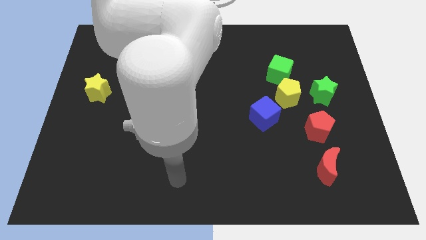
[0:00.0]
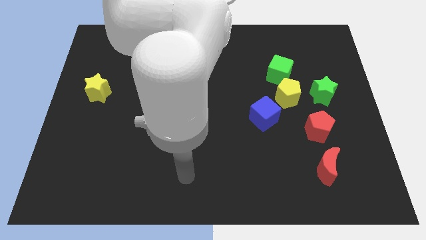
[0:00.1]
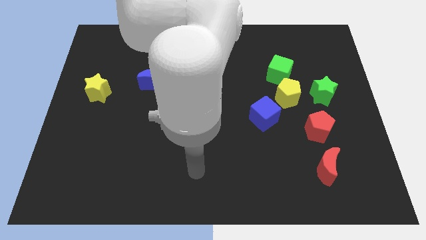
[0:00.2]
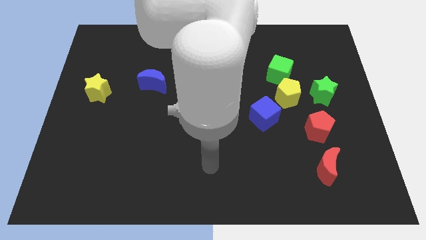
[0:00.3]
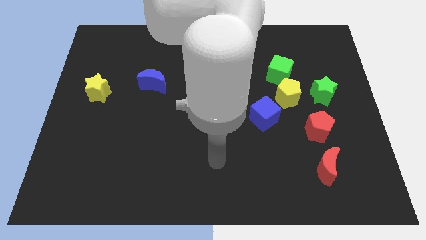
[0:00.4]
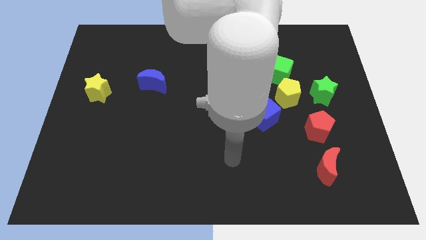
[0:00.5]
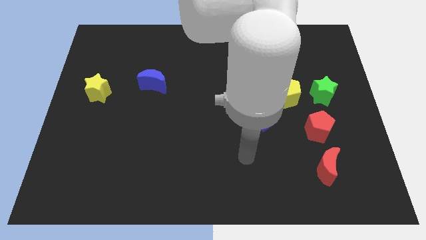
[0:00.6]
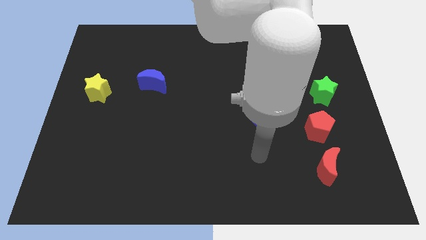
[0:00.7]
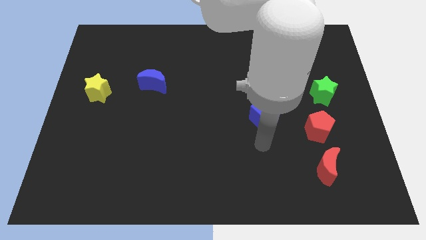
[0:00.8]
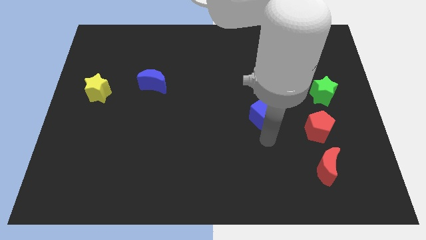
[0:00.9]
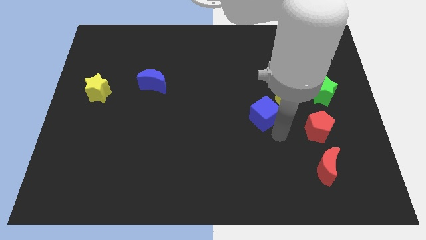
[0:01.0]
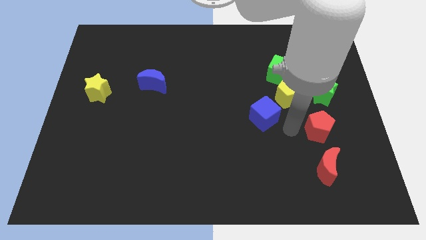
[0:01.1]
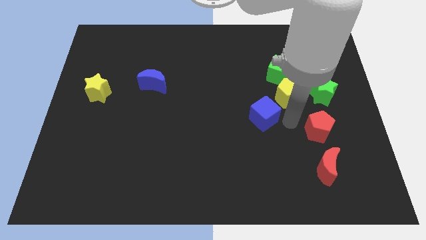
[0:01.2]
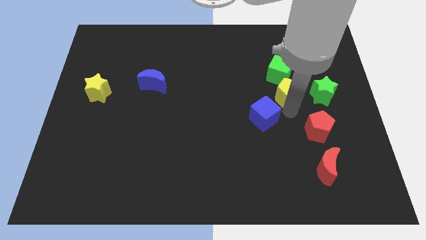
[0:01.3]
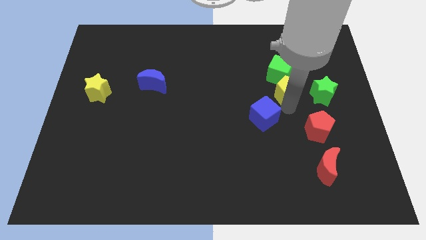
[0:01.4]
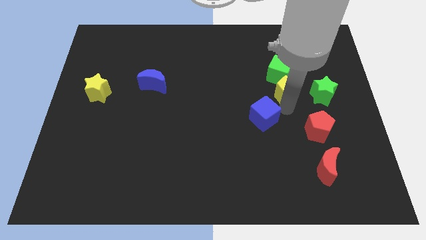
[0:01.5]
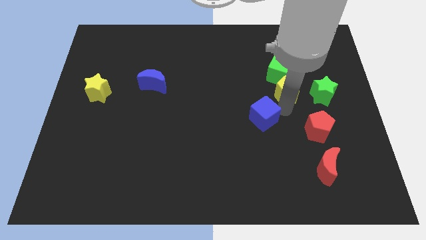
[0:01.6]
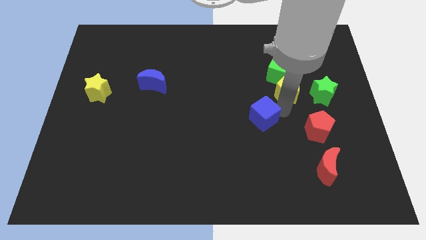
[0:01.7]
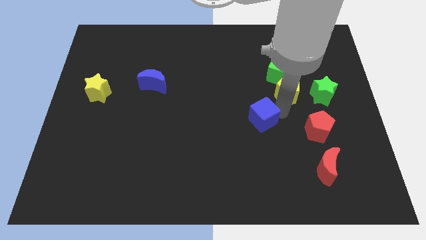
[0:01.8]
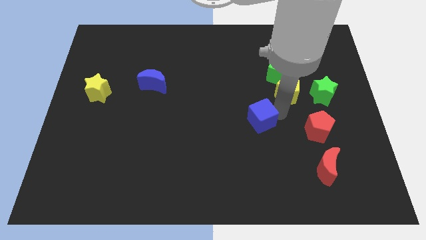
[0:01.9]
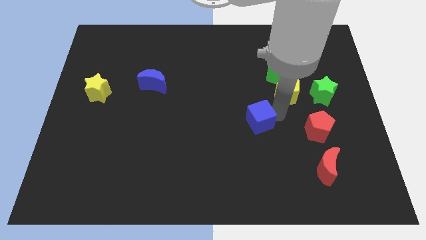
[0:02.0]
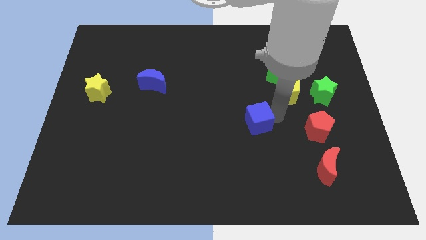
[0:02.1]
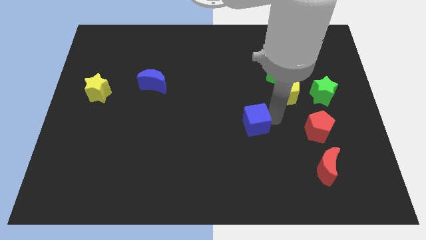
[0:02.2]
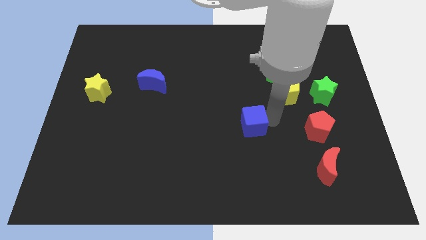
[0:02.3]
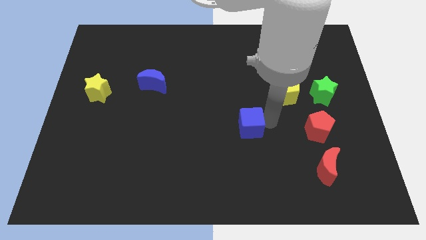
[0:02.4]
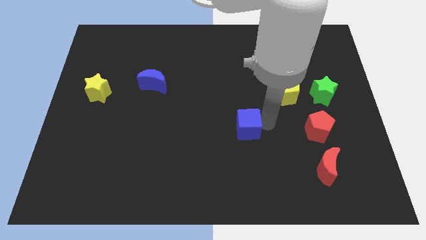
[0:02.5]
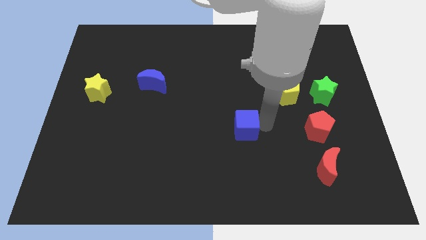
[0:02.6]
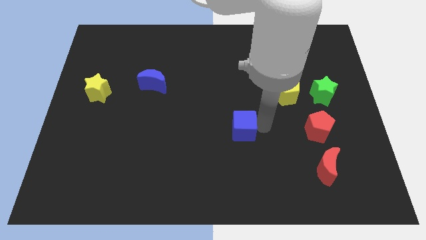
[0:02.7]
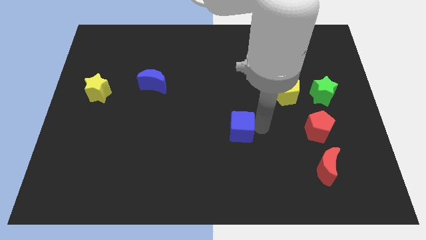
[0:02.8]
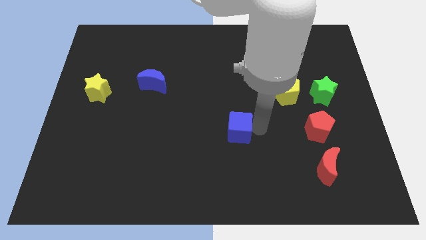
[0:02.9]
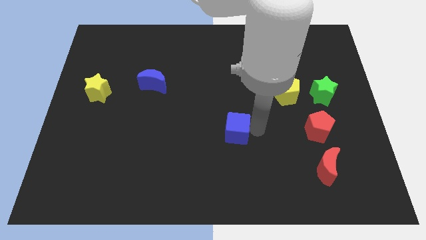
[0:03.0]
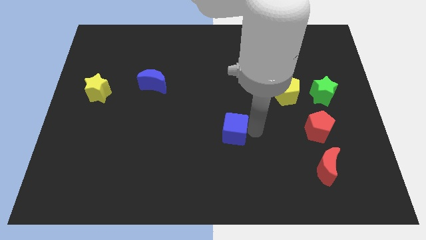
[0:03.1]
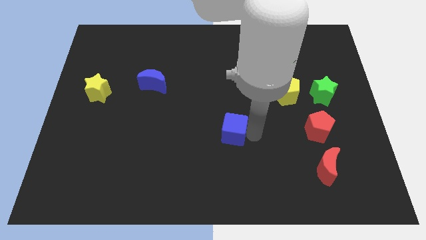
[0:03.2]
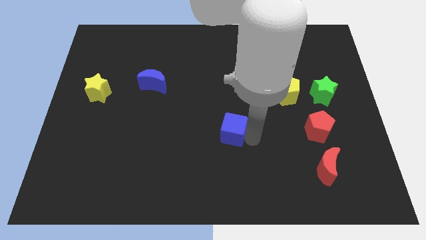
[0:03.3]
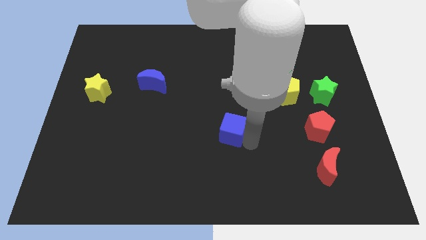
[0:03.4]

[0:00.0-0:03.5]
move the blue cube left somewhat

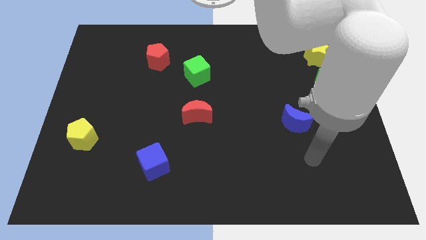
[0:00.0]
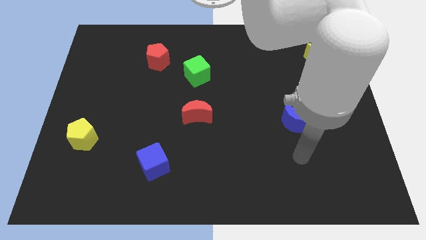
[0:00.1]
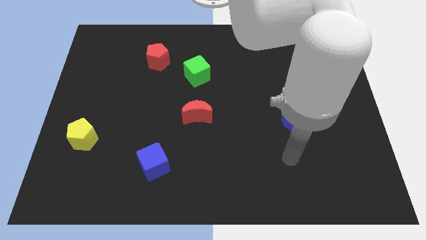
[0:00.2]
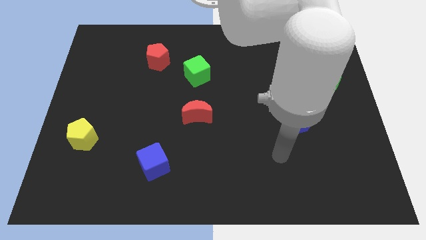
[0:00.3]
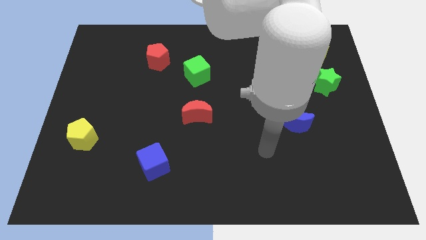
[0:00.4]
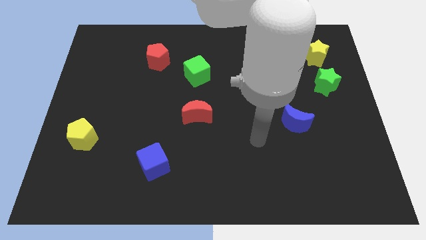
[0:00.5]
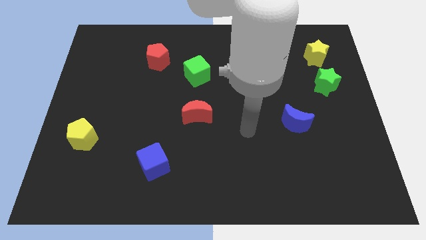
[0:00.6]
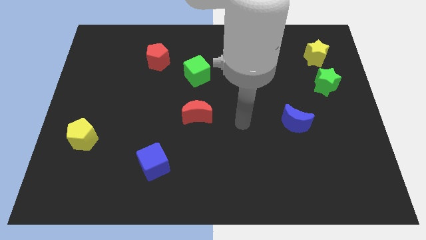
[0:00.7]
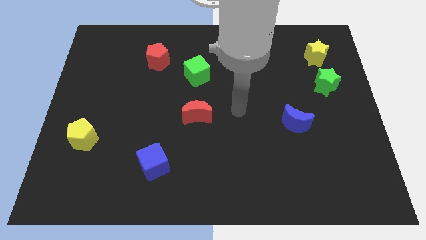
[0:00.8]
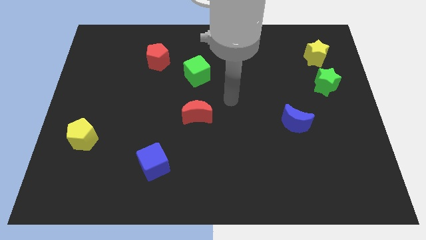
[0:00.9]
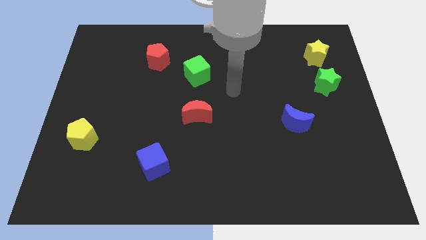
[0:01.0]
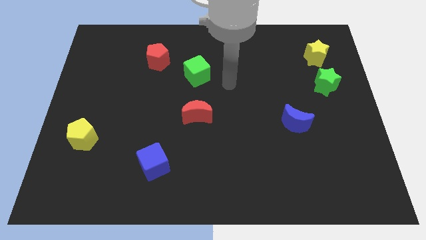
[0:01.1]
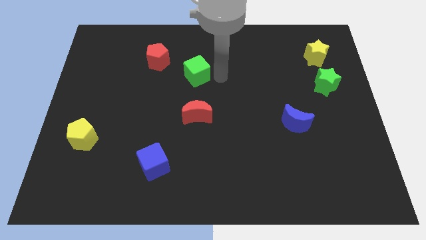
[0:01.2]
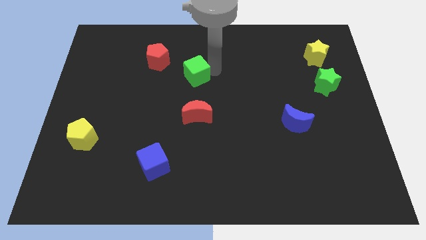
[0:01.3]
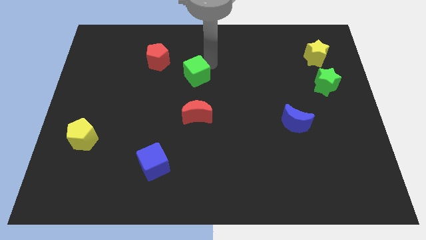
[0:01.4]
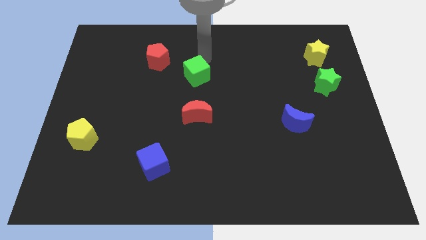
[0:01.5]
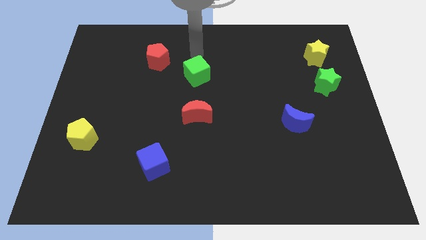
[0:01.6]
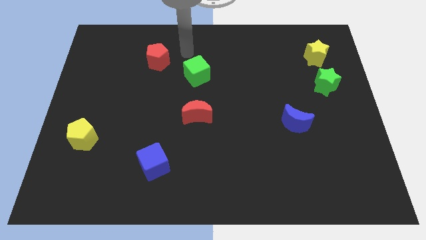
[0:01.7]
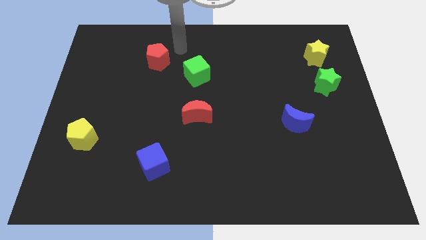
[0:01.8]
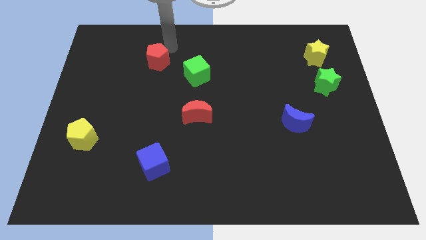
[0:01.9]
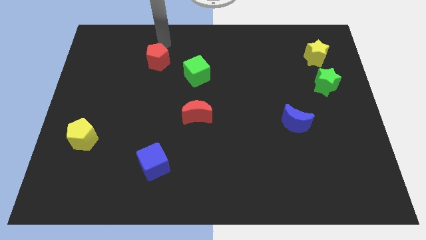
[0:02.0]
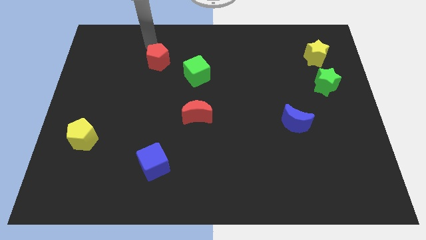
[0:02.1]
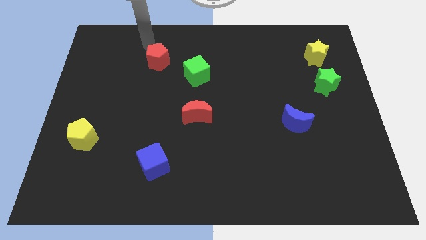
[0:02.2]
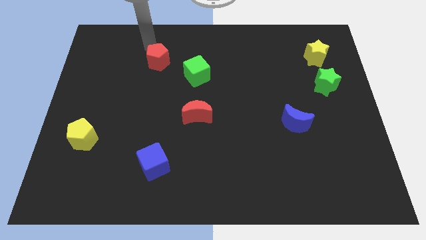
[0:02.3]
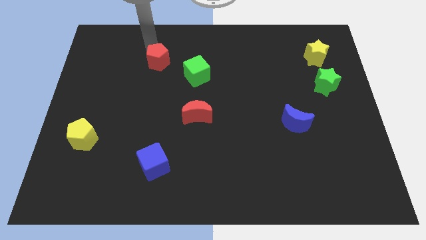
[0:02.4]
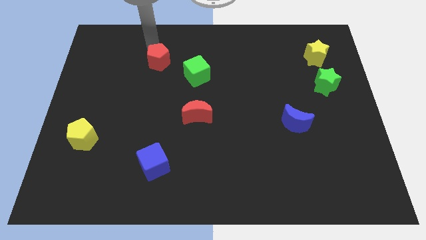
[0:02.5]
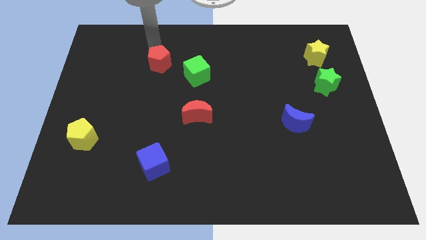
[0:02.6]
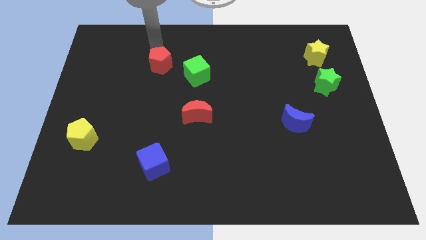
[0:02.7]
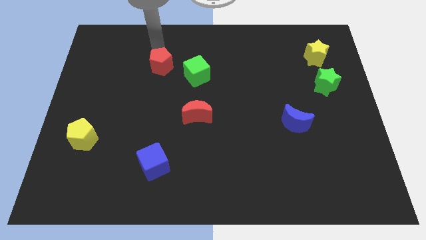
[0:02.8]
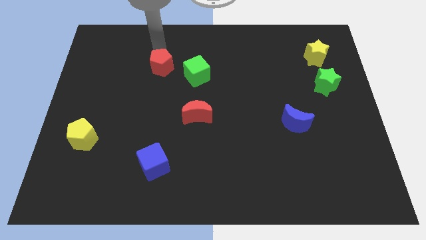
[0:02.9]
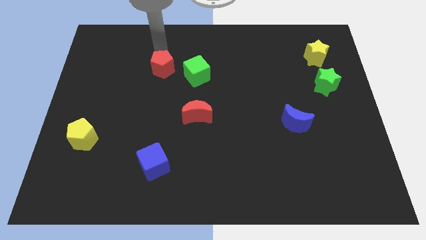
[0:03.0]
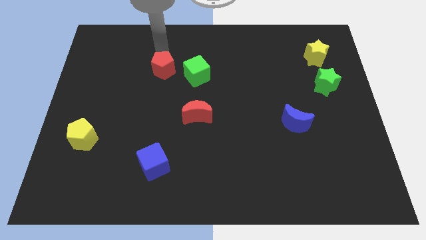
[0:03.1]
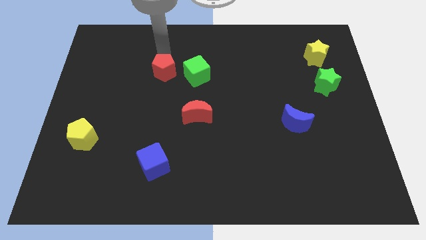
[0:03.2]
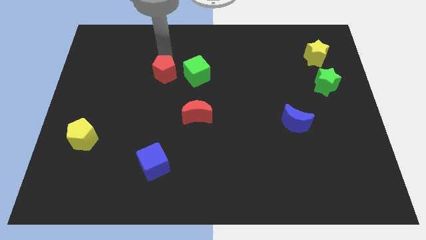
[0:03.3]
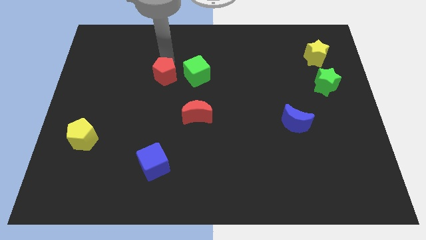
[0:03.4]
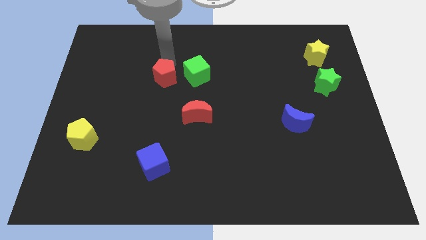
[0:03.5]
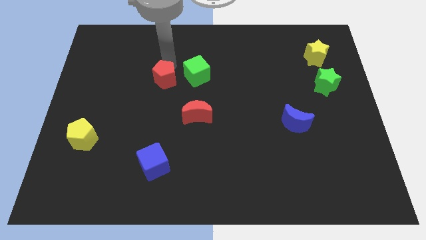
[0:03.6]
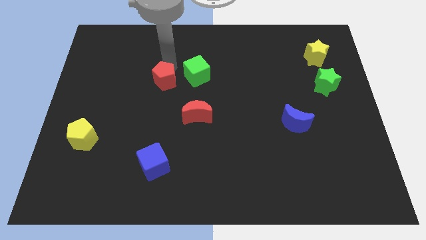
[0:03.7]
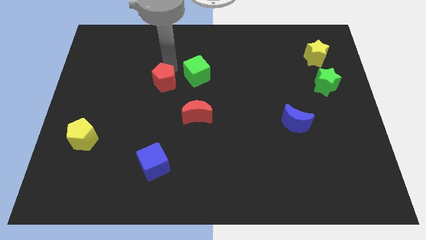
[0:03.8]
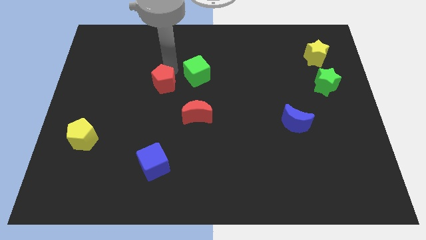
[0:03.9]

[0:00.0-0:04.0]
push the red pentagon diagonally downwards and to the right slightly

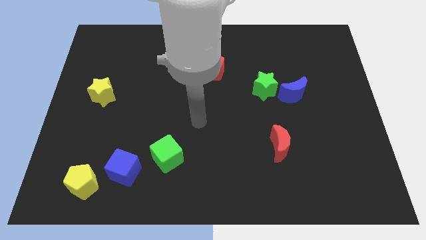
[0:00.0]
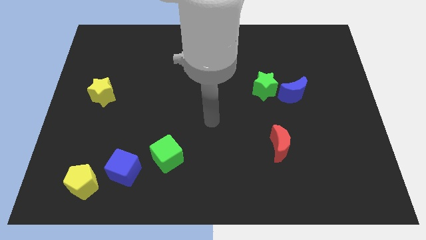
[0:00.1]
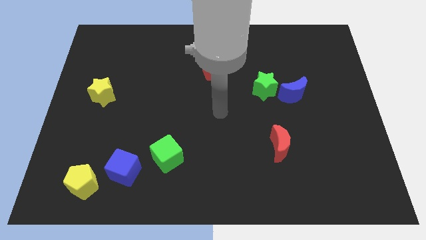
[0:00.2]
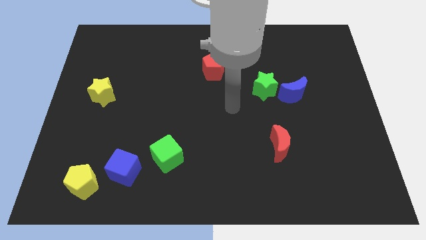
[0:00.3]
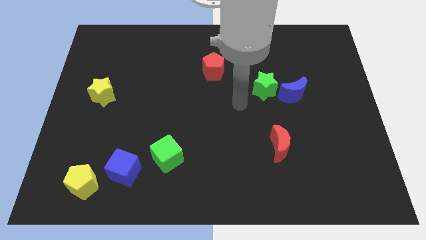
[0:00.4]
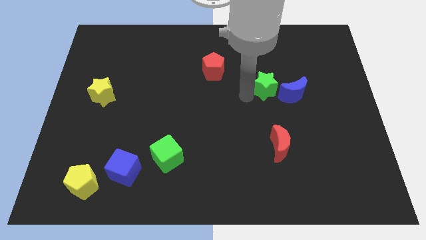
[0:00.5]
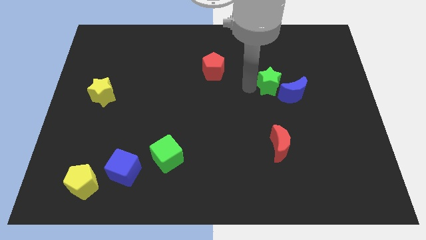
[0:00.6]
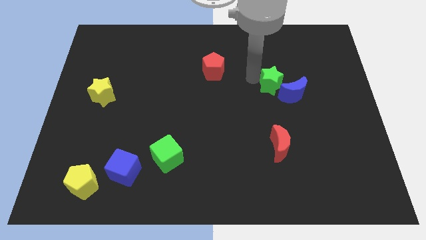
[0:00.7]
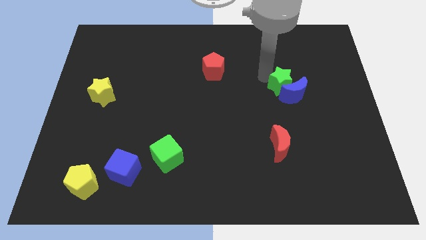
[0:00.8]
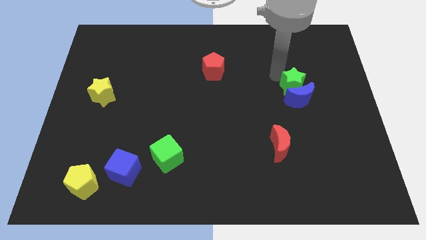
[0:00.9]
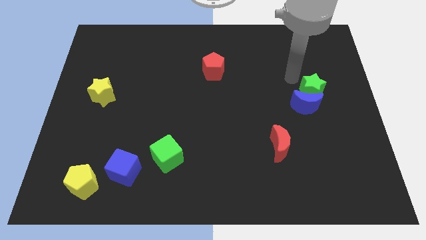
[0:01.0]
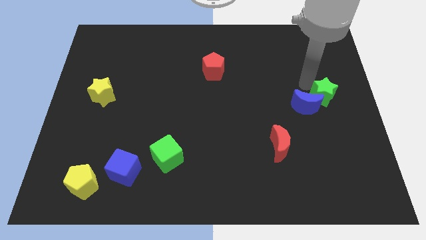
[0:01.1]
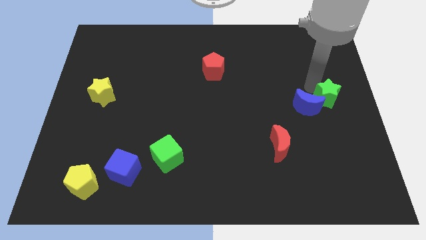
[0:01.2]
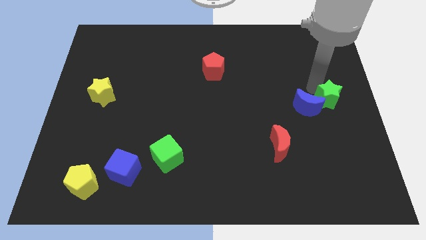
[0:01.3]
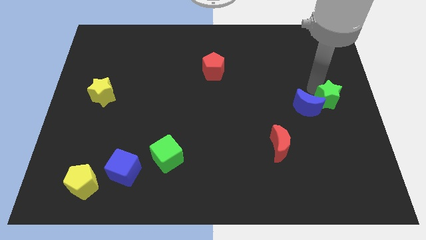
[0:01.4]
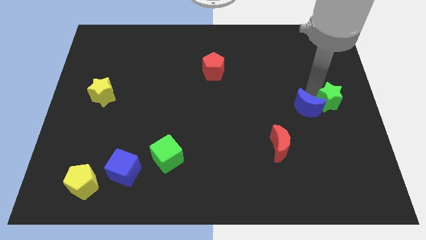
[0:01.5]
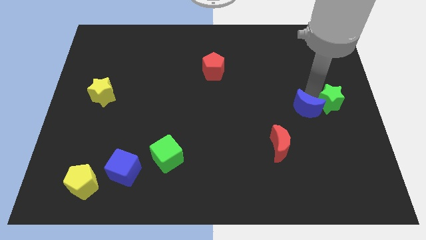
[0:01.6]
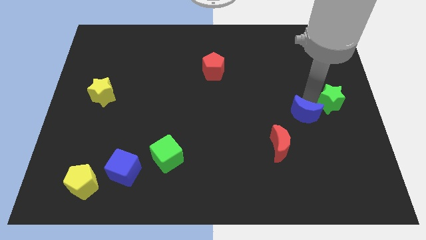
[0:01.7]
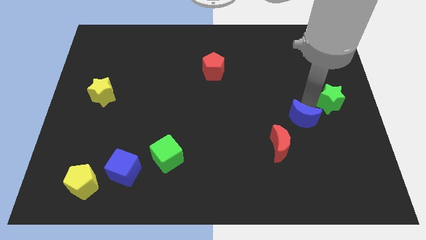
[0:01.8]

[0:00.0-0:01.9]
push the blue moon down slightly
